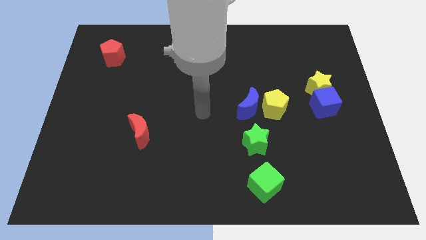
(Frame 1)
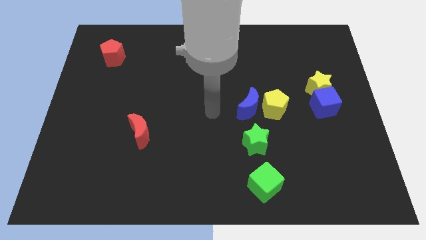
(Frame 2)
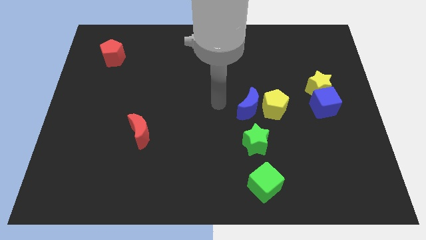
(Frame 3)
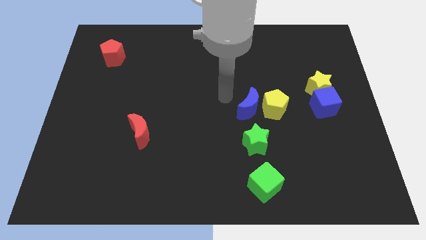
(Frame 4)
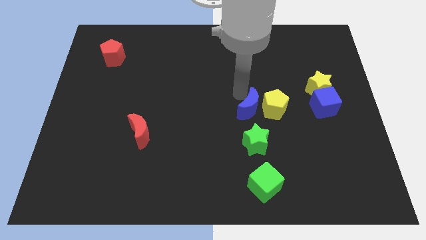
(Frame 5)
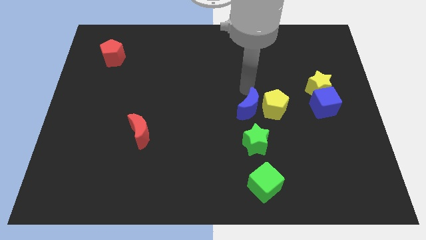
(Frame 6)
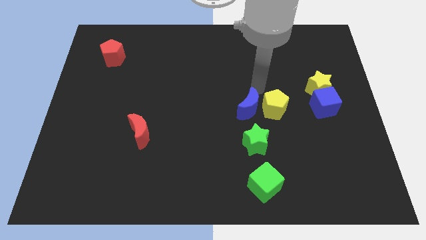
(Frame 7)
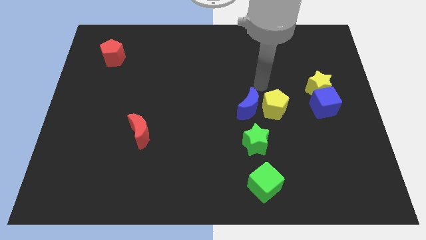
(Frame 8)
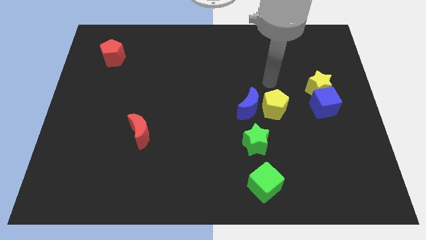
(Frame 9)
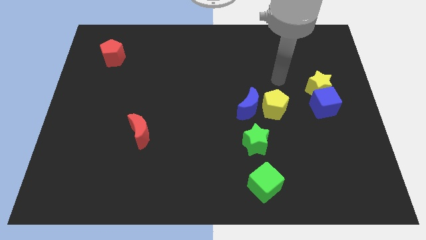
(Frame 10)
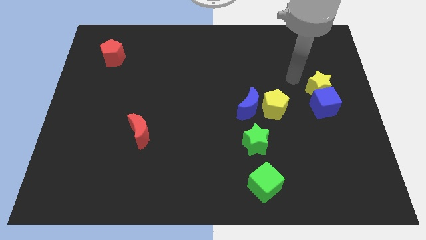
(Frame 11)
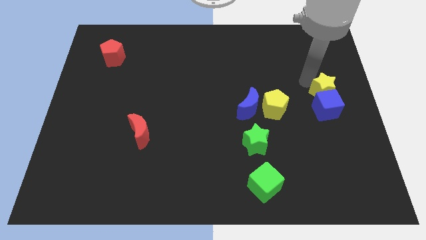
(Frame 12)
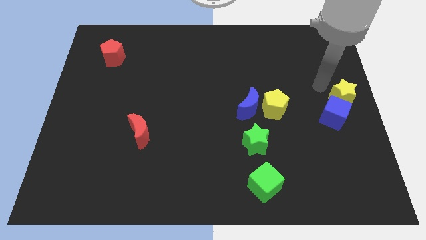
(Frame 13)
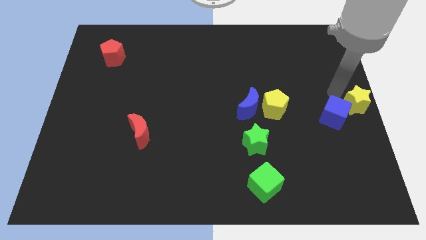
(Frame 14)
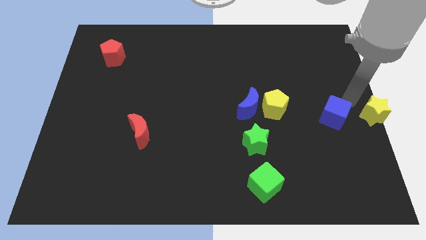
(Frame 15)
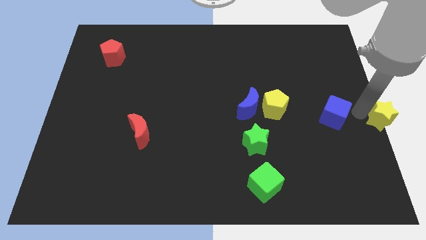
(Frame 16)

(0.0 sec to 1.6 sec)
pull the blue cube apart from the yellow star

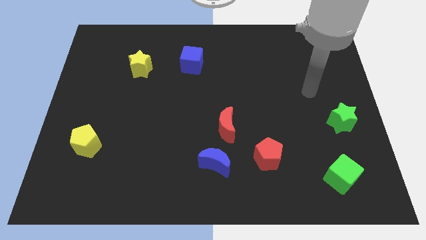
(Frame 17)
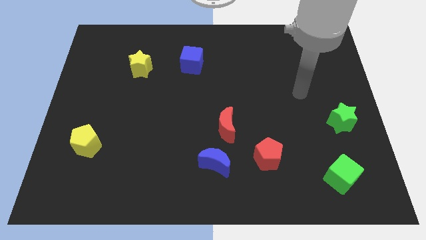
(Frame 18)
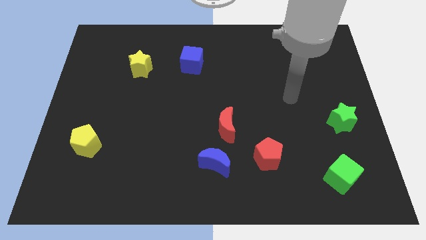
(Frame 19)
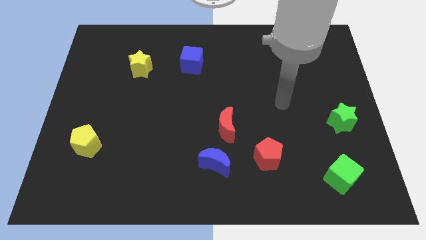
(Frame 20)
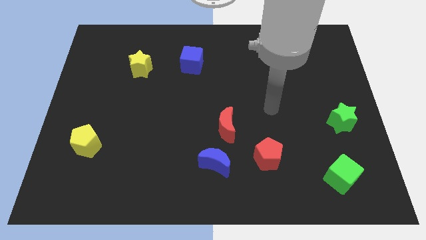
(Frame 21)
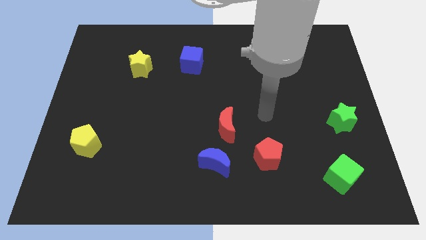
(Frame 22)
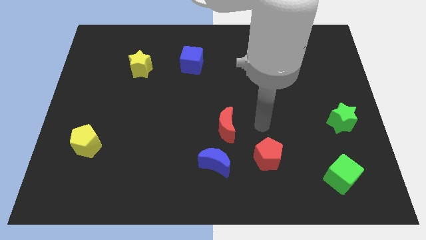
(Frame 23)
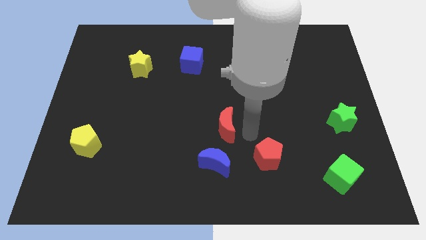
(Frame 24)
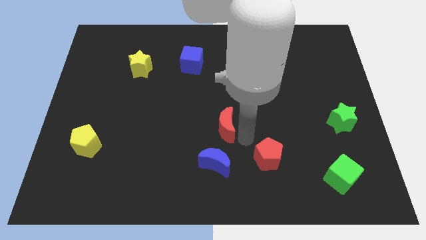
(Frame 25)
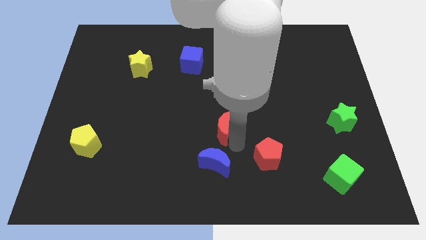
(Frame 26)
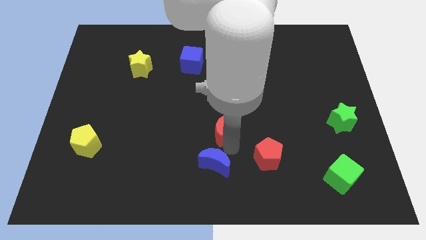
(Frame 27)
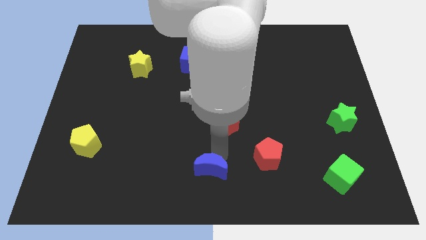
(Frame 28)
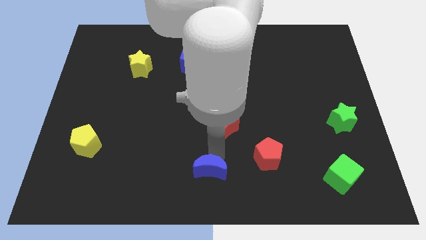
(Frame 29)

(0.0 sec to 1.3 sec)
move the red moon away from the blue moon

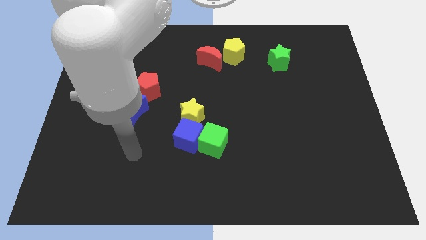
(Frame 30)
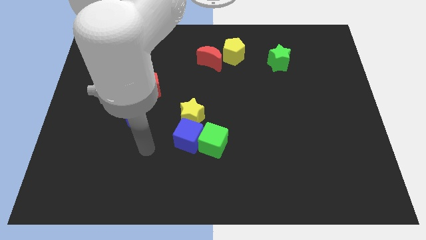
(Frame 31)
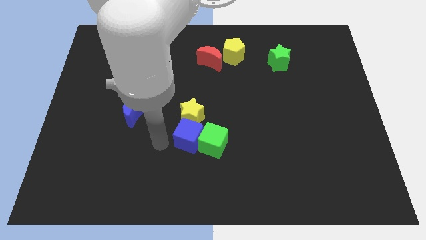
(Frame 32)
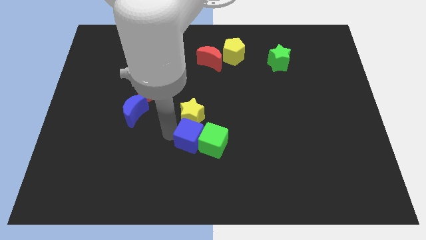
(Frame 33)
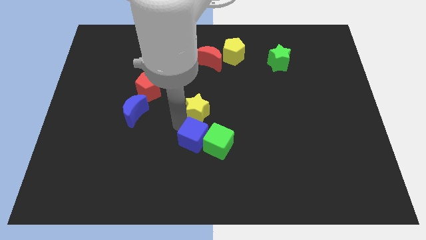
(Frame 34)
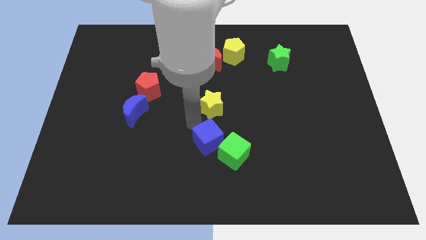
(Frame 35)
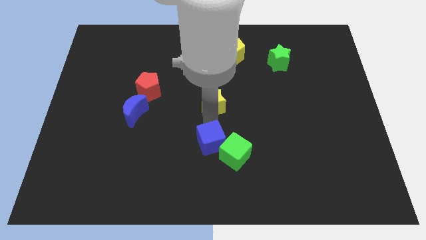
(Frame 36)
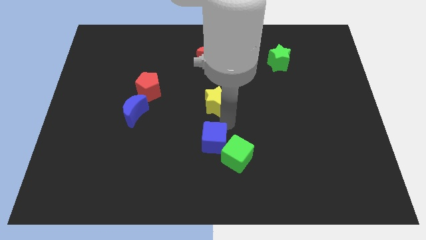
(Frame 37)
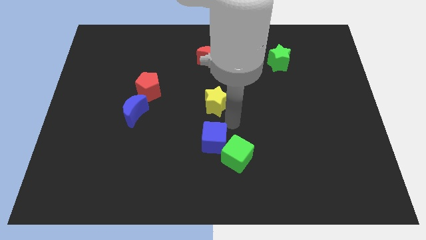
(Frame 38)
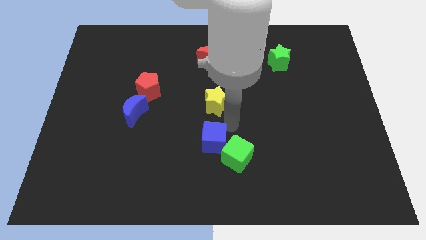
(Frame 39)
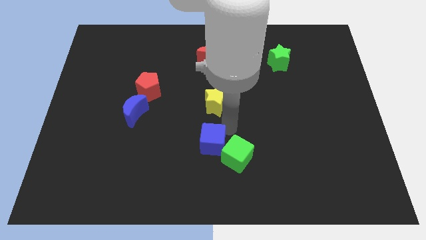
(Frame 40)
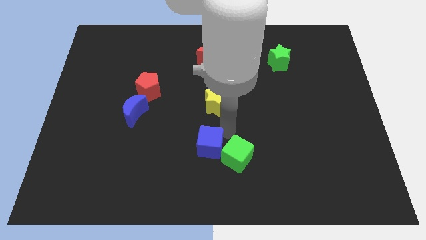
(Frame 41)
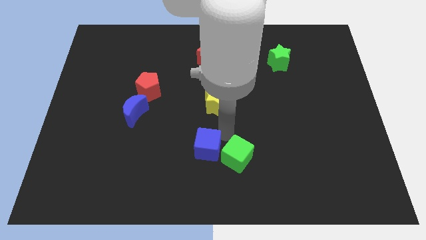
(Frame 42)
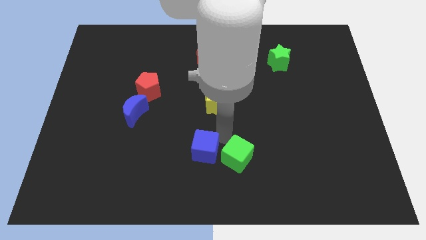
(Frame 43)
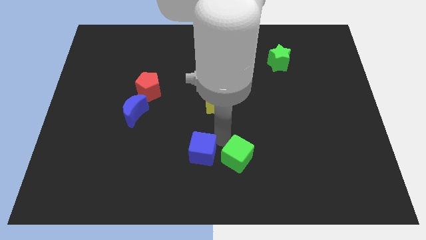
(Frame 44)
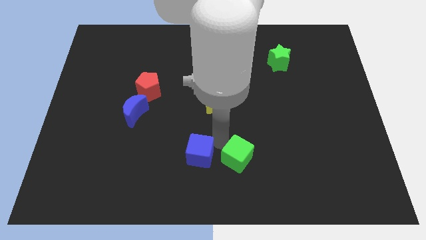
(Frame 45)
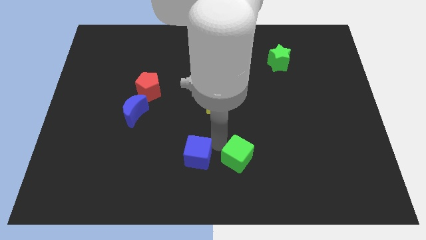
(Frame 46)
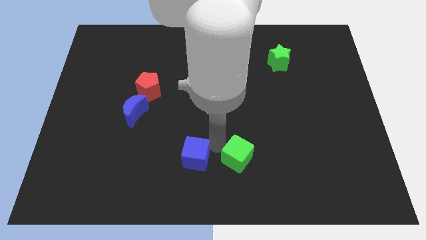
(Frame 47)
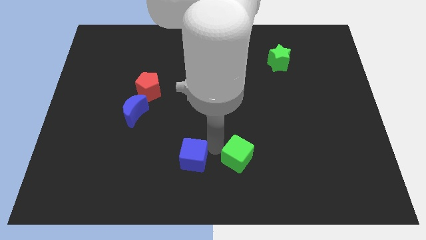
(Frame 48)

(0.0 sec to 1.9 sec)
move the blue cube away from the green cube and yellow star

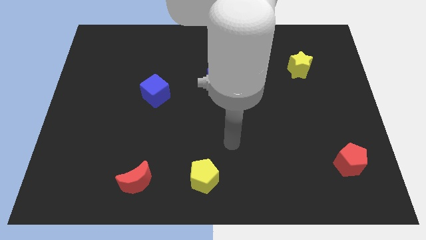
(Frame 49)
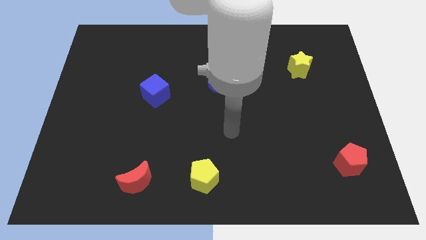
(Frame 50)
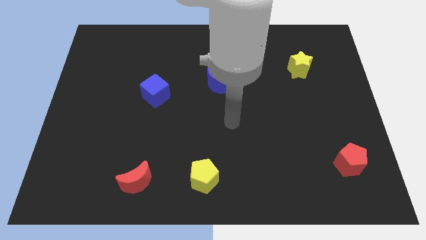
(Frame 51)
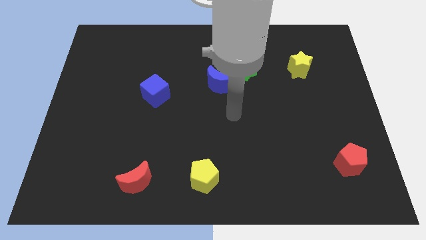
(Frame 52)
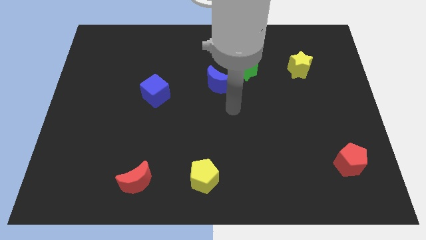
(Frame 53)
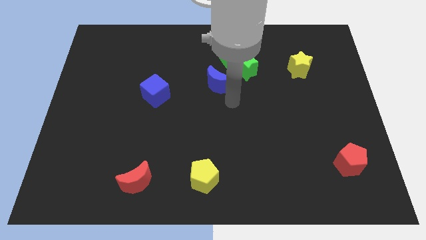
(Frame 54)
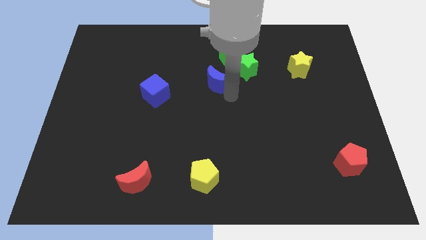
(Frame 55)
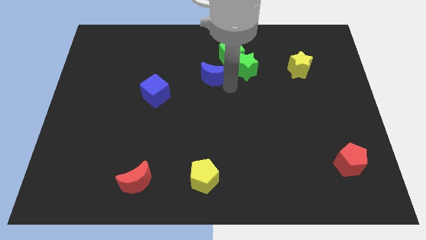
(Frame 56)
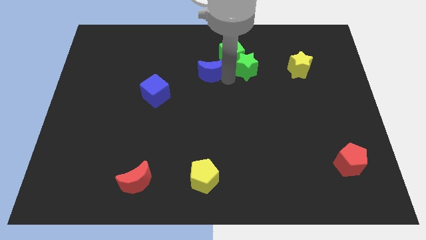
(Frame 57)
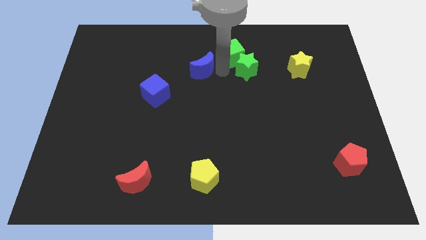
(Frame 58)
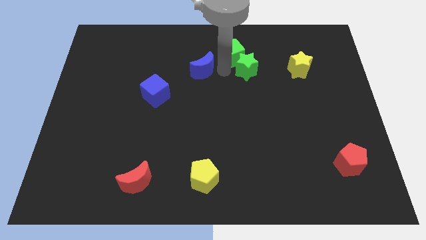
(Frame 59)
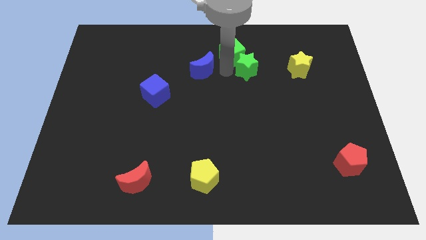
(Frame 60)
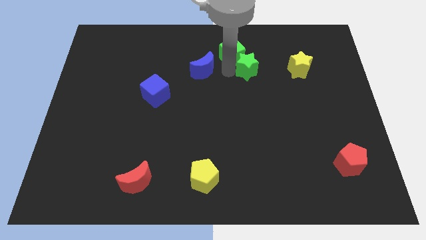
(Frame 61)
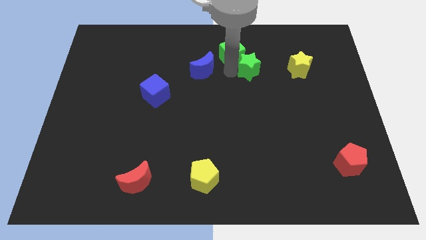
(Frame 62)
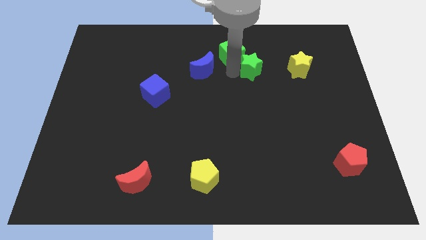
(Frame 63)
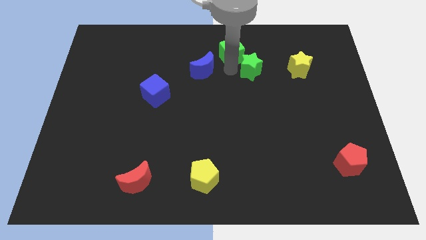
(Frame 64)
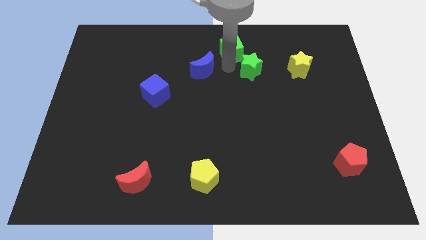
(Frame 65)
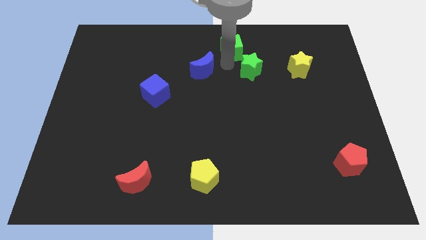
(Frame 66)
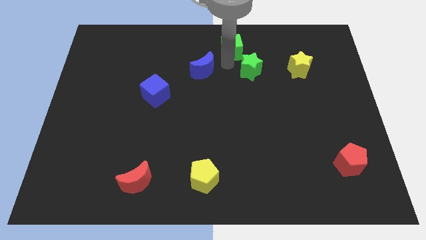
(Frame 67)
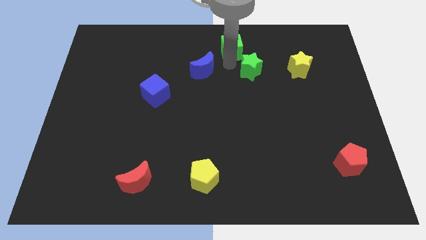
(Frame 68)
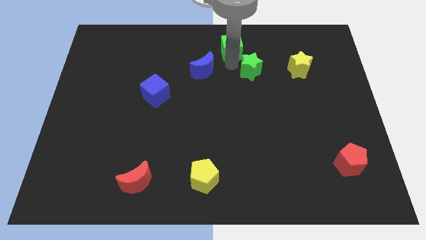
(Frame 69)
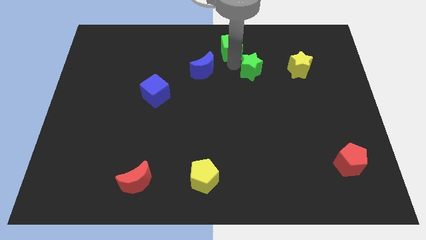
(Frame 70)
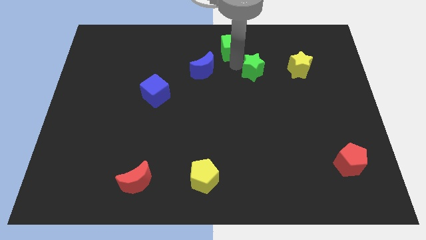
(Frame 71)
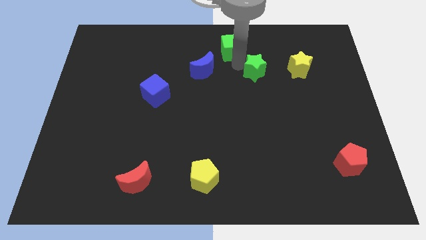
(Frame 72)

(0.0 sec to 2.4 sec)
separate the green star from the green cube and blue moon

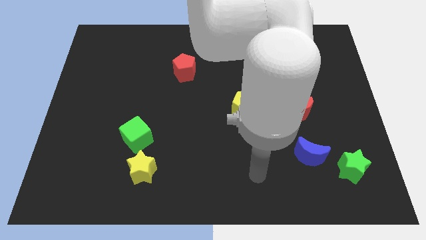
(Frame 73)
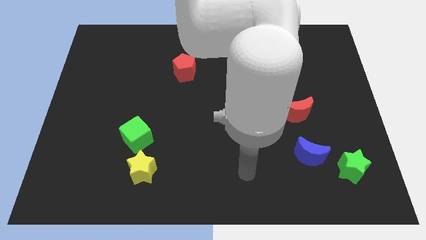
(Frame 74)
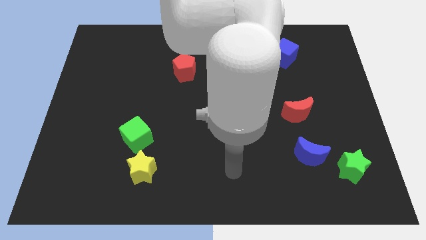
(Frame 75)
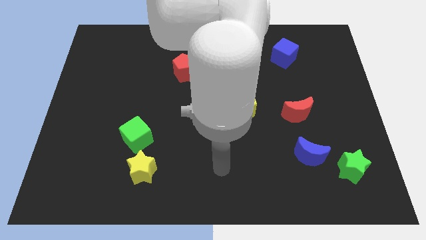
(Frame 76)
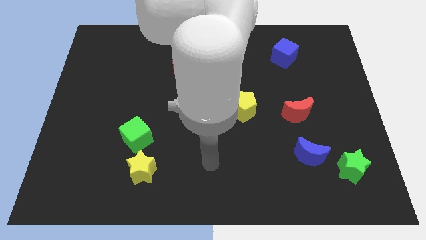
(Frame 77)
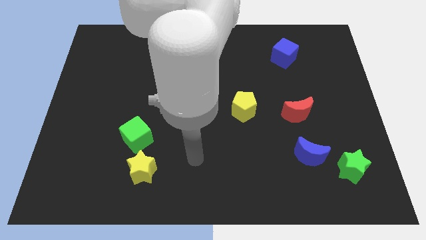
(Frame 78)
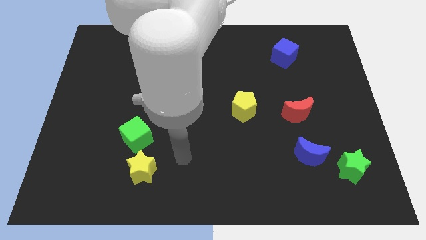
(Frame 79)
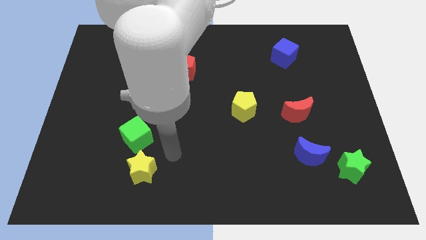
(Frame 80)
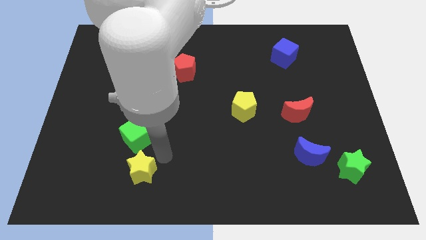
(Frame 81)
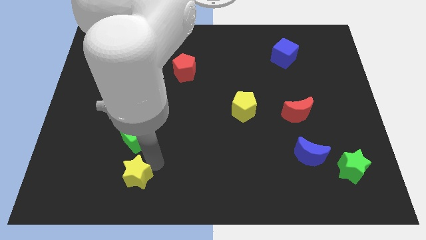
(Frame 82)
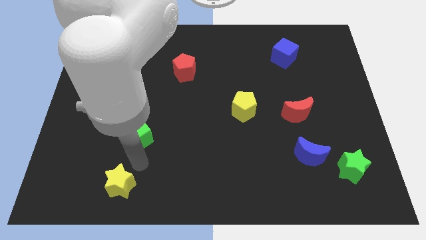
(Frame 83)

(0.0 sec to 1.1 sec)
separate the green cube from the yellow star

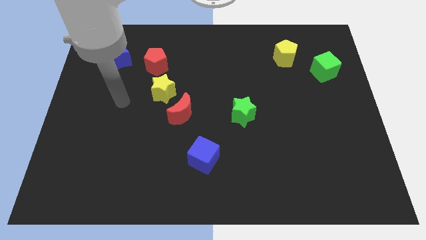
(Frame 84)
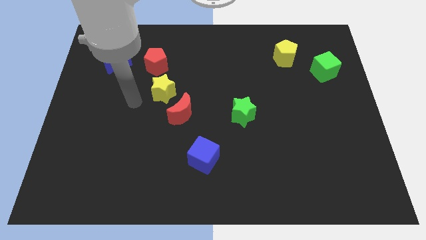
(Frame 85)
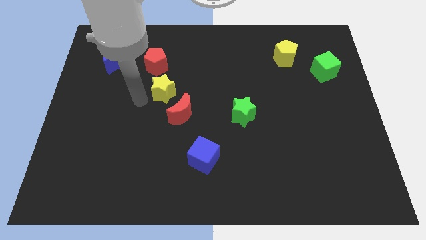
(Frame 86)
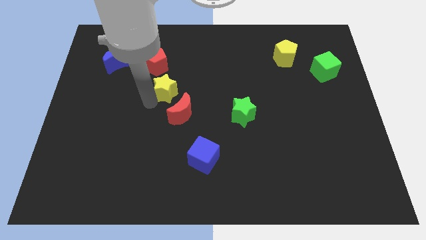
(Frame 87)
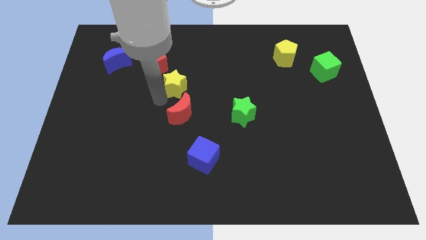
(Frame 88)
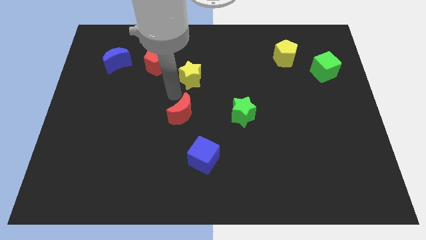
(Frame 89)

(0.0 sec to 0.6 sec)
pull the red moon apart from the yellow star

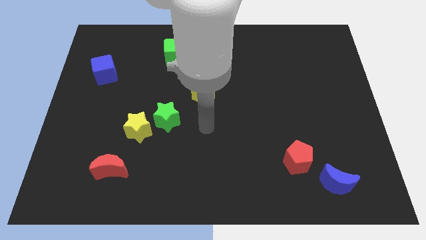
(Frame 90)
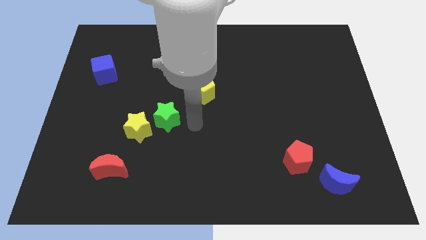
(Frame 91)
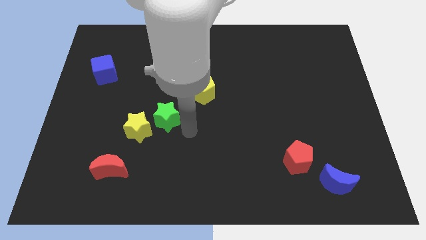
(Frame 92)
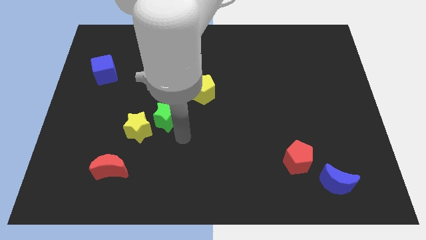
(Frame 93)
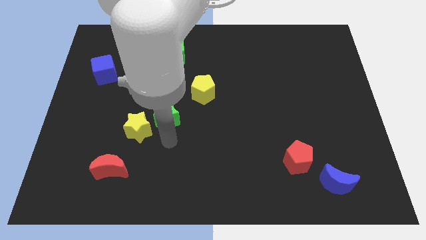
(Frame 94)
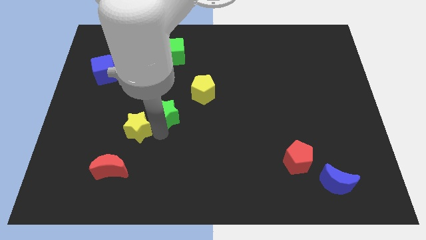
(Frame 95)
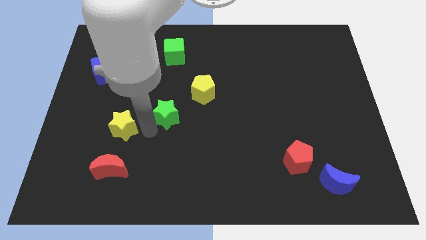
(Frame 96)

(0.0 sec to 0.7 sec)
pull the green star apart from the yellow star
